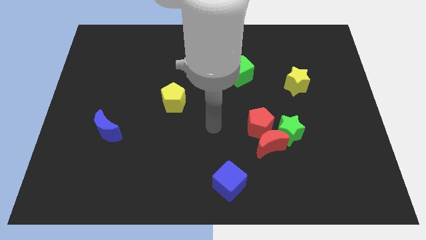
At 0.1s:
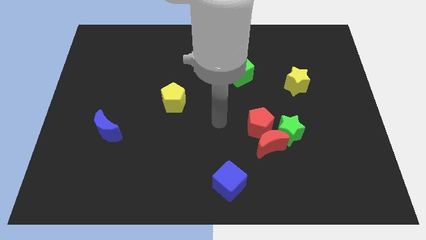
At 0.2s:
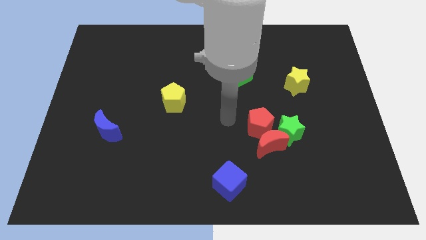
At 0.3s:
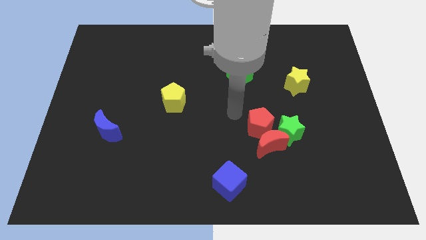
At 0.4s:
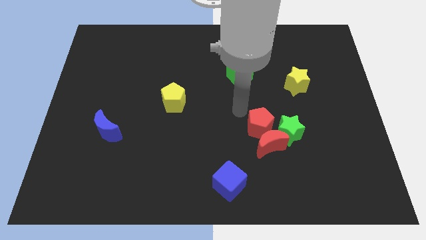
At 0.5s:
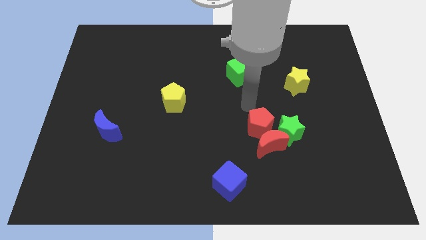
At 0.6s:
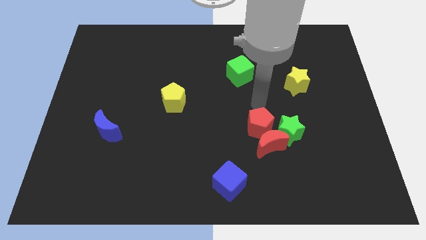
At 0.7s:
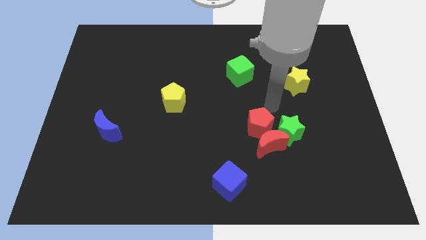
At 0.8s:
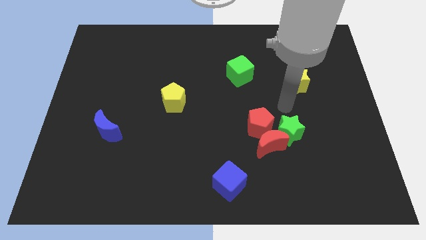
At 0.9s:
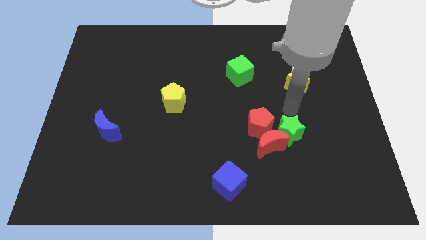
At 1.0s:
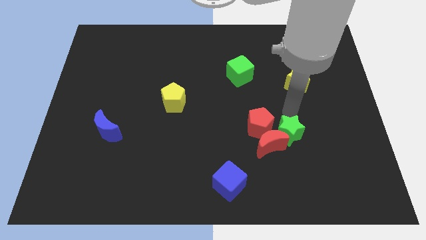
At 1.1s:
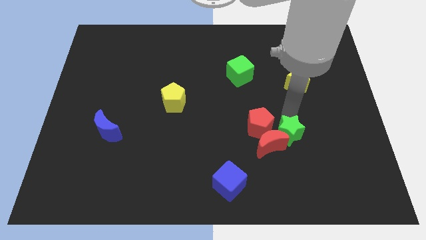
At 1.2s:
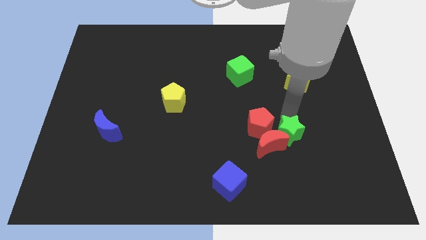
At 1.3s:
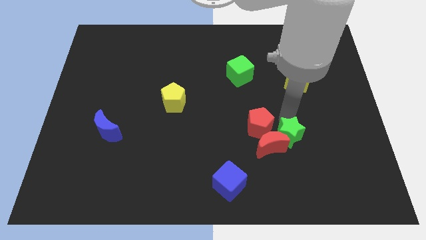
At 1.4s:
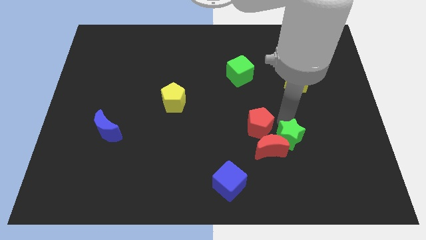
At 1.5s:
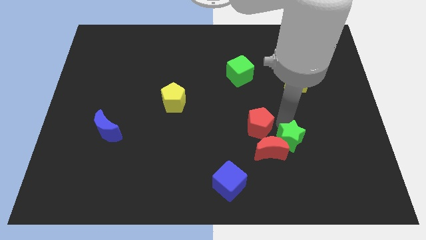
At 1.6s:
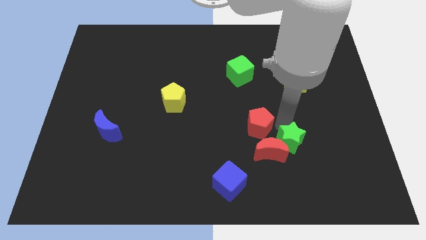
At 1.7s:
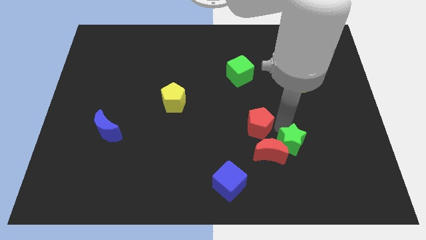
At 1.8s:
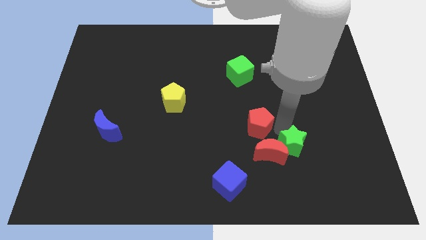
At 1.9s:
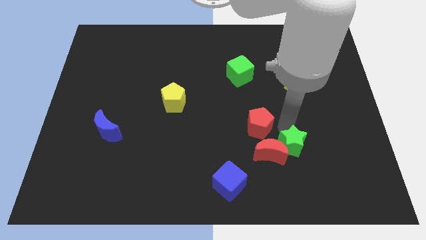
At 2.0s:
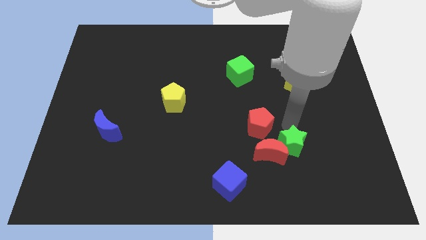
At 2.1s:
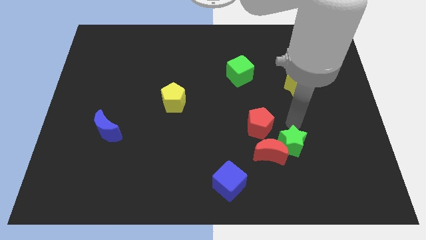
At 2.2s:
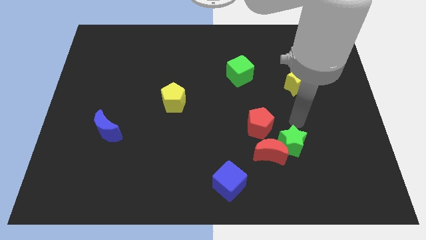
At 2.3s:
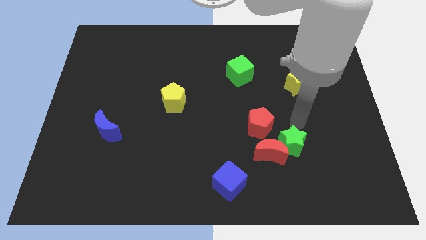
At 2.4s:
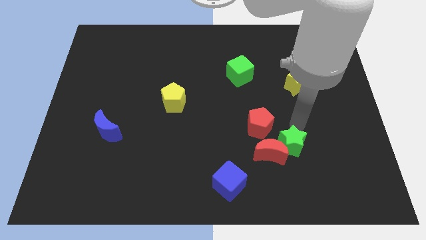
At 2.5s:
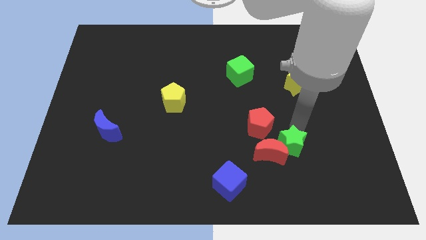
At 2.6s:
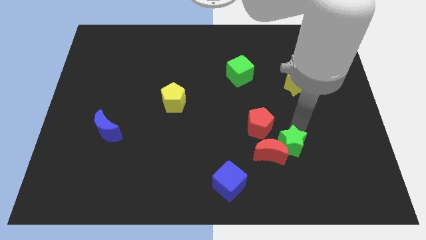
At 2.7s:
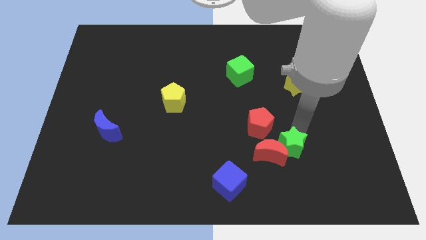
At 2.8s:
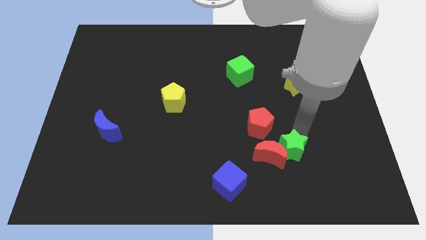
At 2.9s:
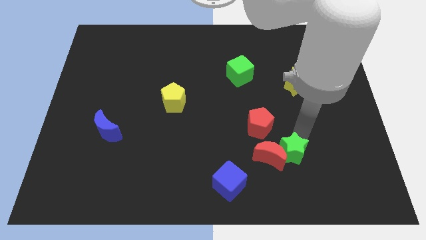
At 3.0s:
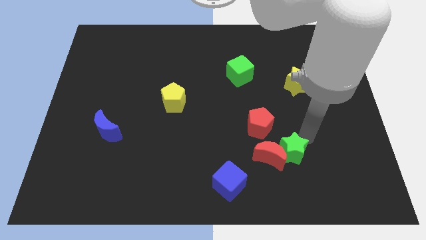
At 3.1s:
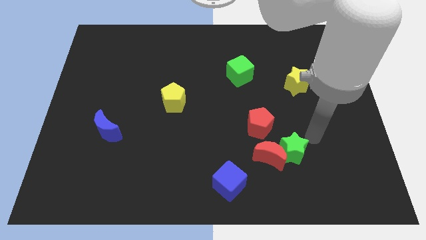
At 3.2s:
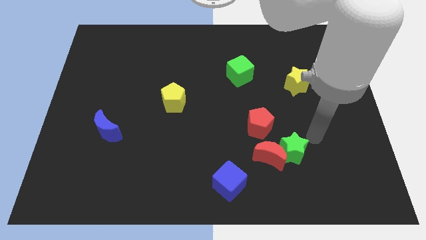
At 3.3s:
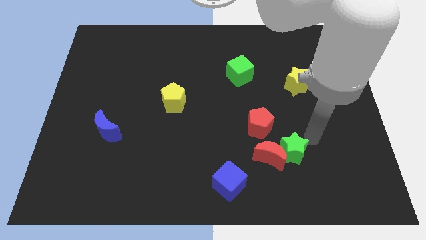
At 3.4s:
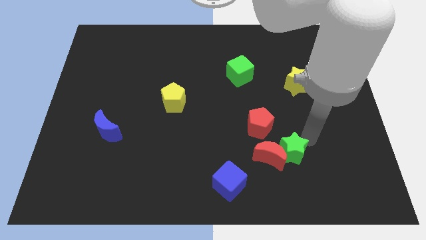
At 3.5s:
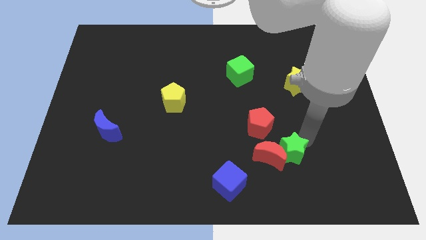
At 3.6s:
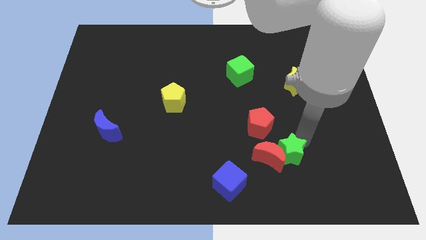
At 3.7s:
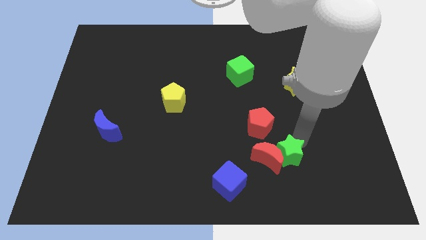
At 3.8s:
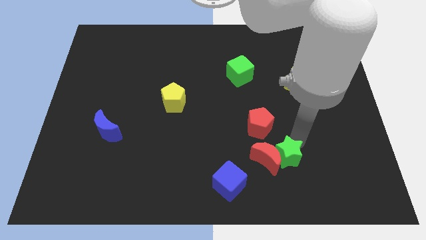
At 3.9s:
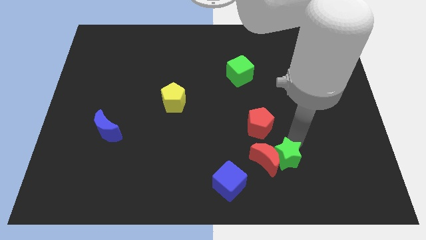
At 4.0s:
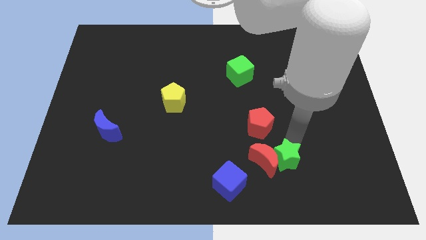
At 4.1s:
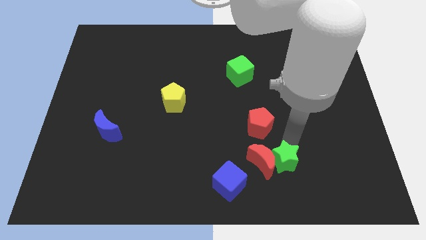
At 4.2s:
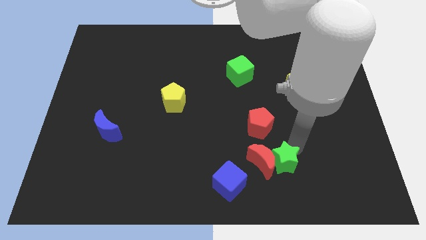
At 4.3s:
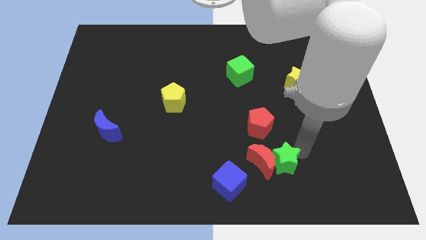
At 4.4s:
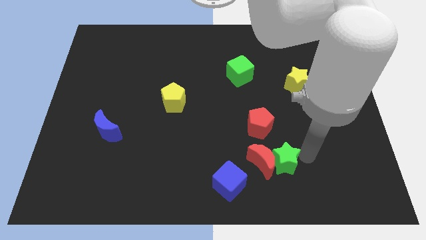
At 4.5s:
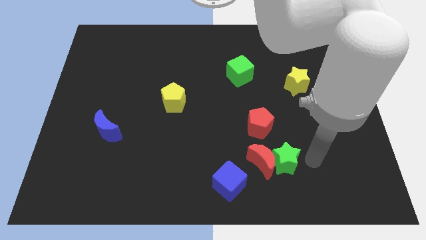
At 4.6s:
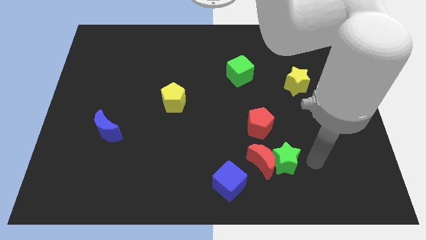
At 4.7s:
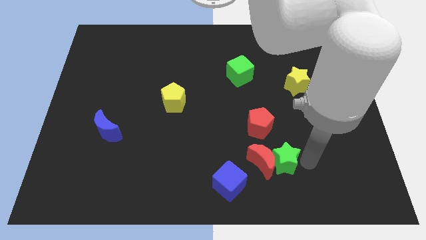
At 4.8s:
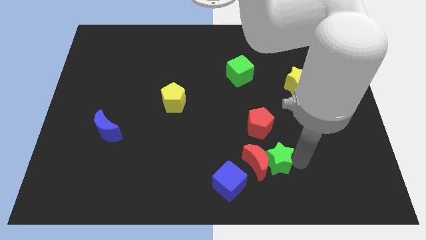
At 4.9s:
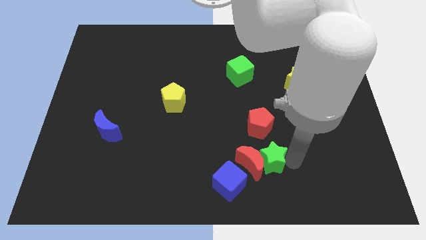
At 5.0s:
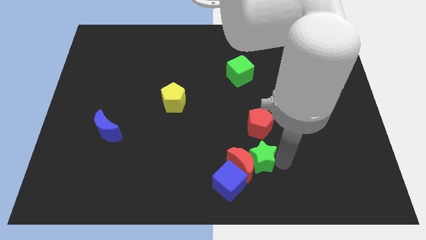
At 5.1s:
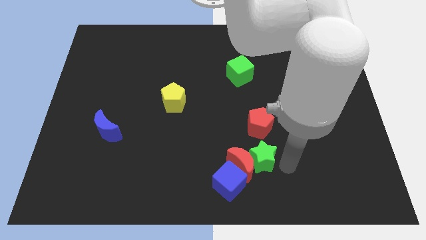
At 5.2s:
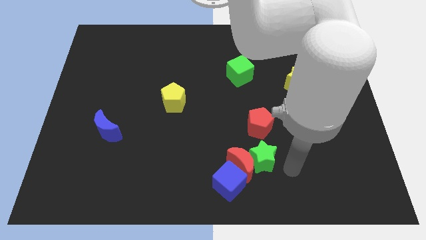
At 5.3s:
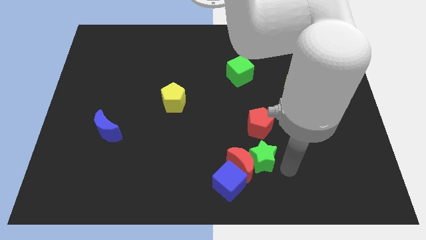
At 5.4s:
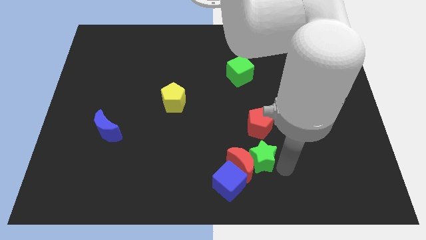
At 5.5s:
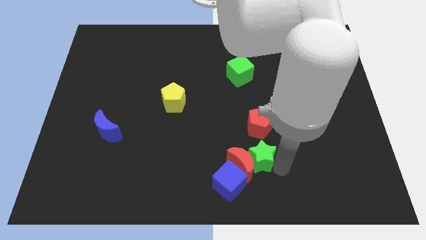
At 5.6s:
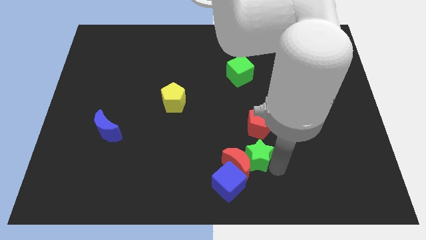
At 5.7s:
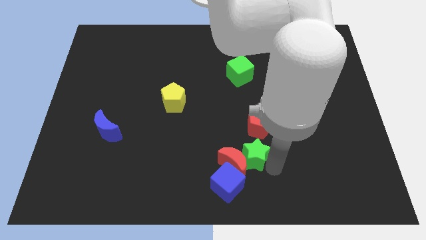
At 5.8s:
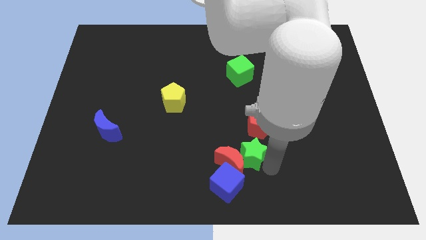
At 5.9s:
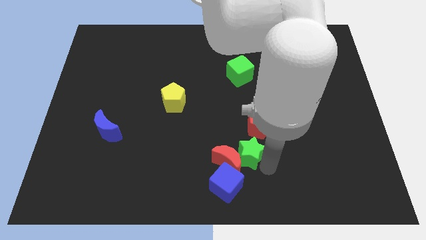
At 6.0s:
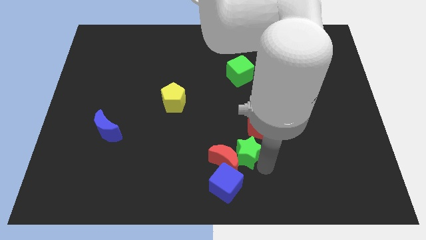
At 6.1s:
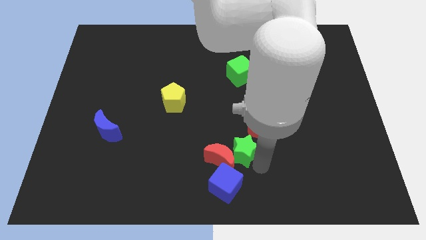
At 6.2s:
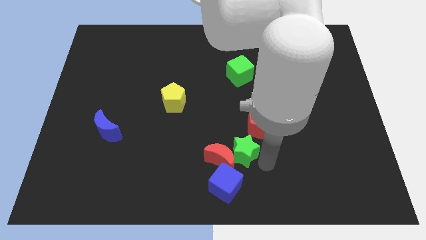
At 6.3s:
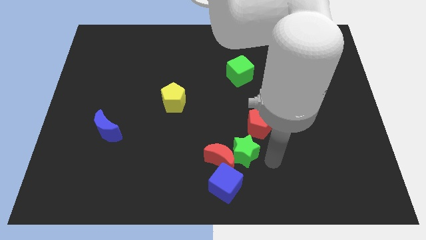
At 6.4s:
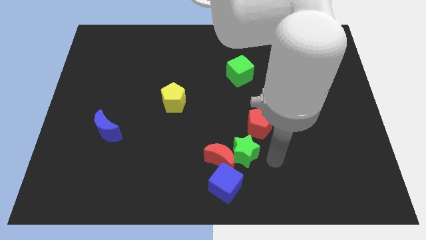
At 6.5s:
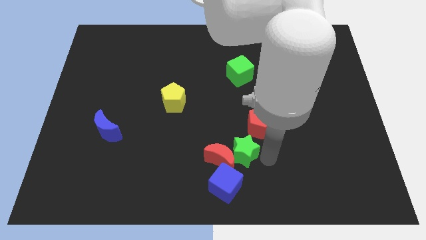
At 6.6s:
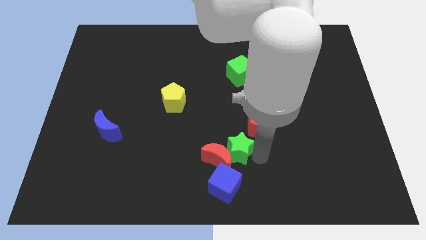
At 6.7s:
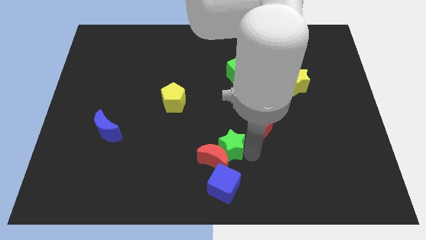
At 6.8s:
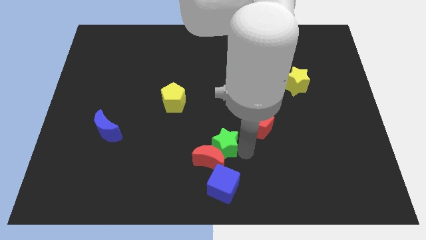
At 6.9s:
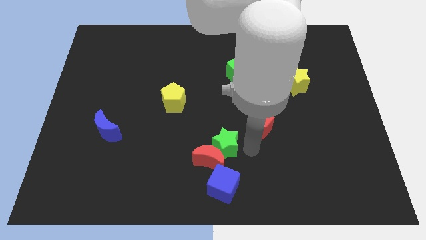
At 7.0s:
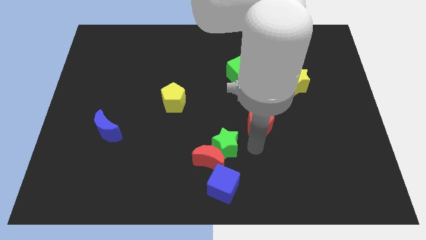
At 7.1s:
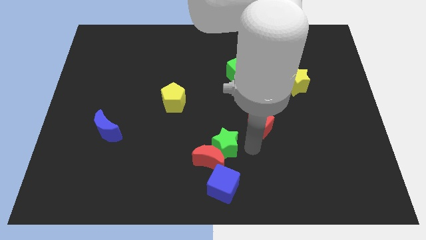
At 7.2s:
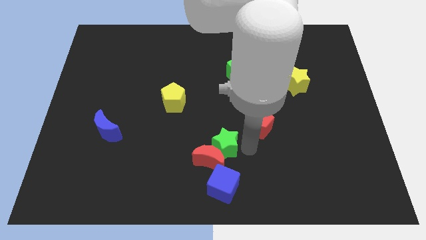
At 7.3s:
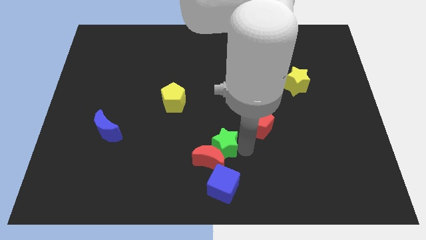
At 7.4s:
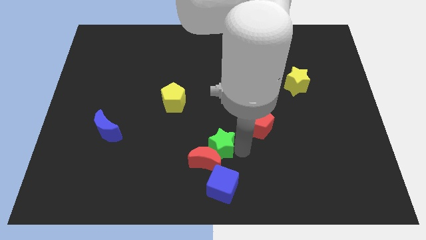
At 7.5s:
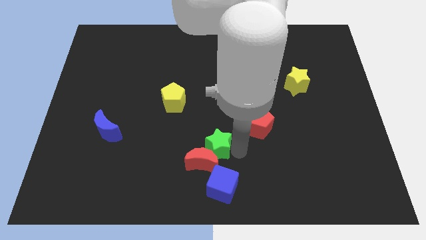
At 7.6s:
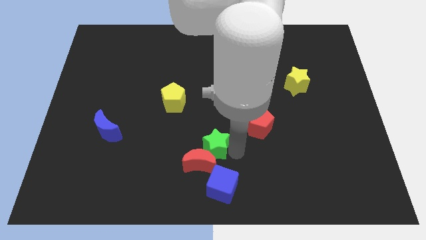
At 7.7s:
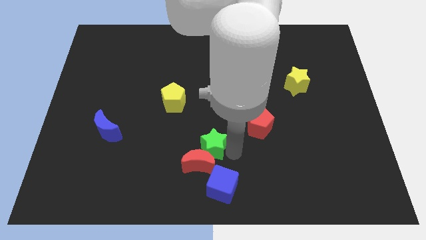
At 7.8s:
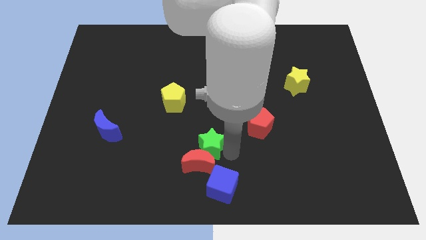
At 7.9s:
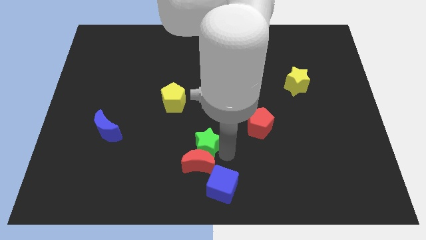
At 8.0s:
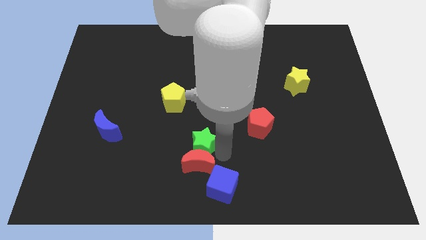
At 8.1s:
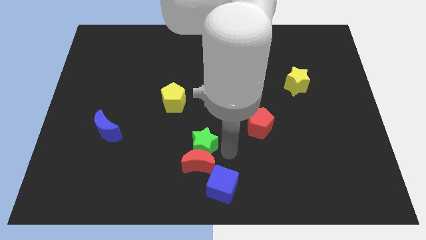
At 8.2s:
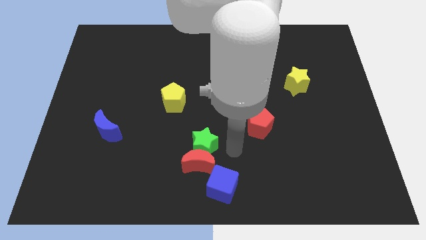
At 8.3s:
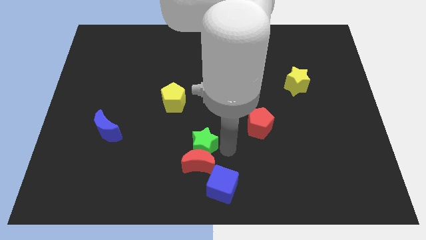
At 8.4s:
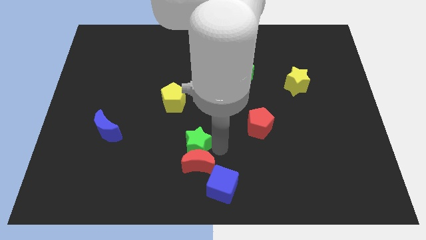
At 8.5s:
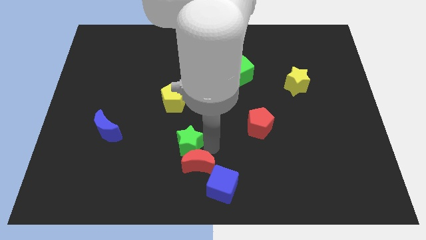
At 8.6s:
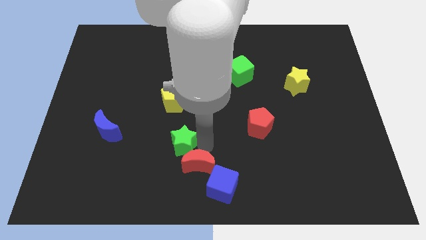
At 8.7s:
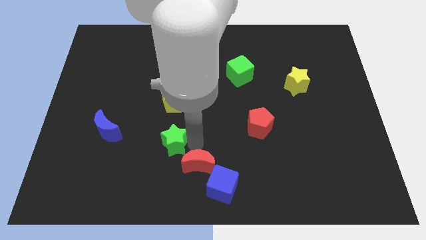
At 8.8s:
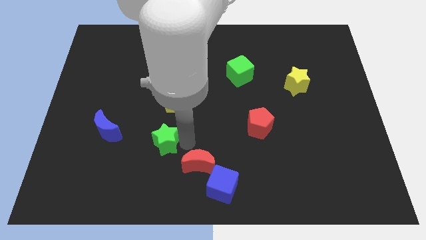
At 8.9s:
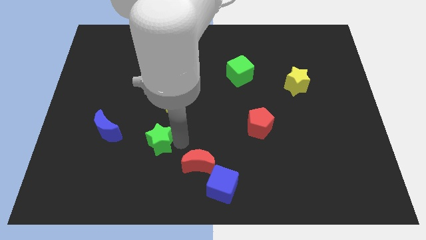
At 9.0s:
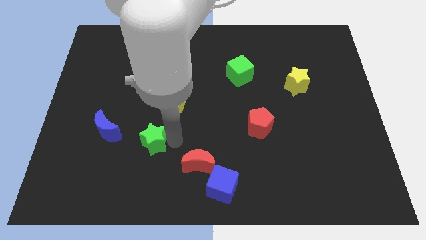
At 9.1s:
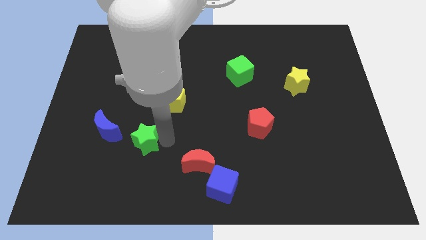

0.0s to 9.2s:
slide the green star diagonally down and to the right of the blue moon
